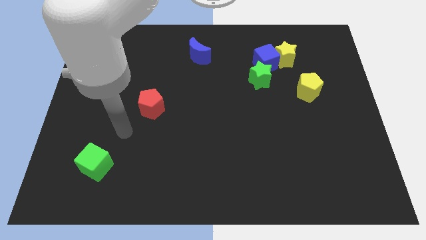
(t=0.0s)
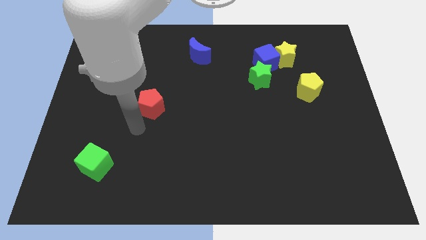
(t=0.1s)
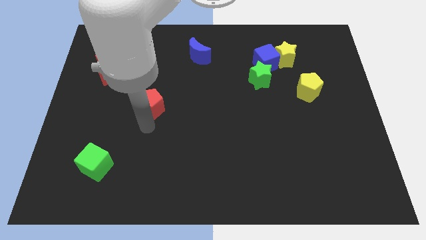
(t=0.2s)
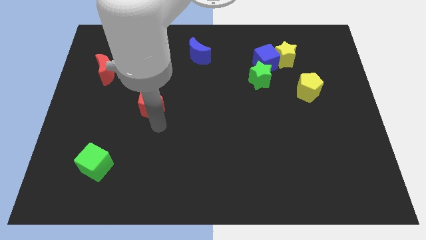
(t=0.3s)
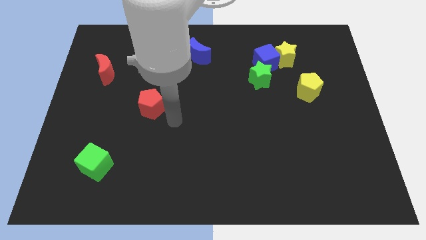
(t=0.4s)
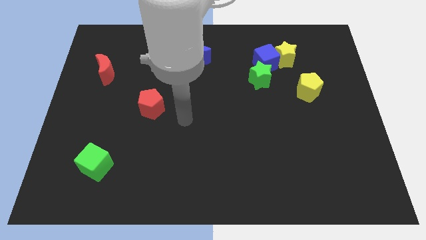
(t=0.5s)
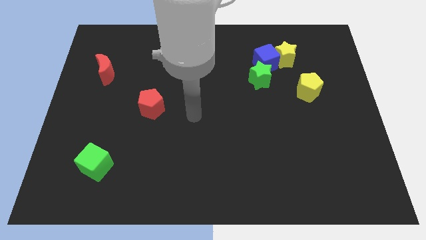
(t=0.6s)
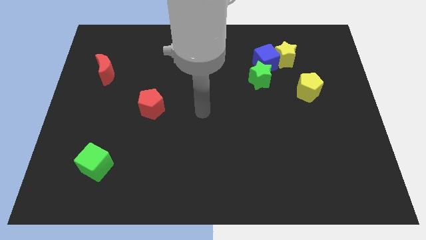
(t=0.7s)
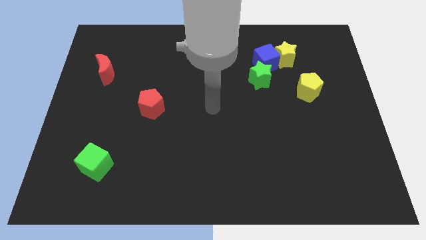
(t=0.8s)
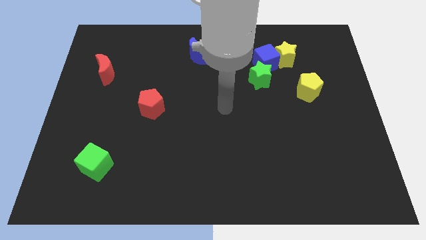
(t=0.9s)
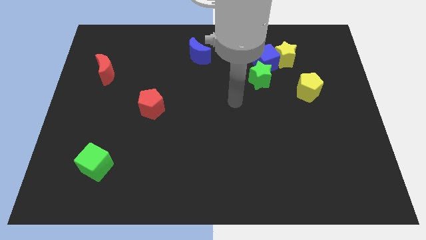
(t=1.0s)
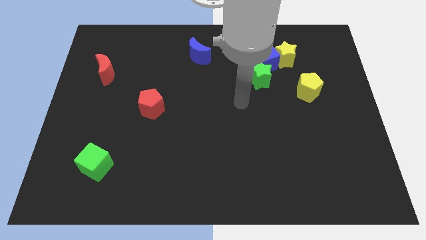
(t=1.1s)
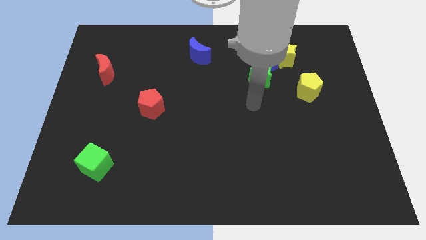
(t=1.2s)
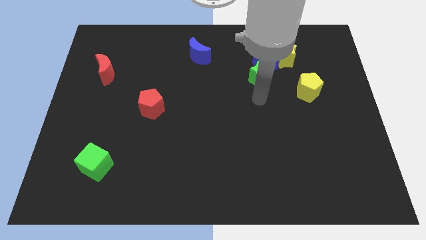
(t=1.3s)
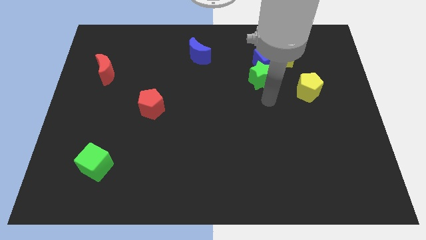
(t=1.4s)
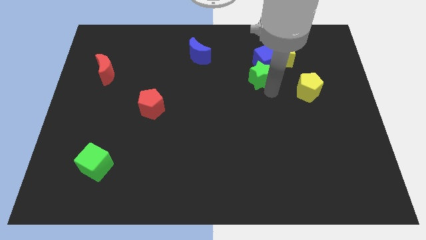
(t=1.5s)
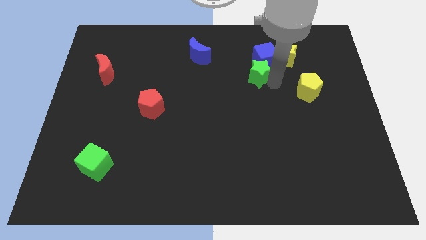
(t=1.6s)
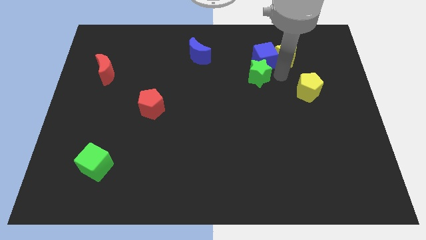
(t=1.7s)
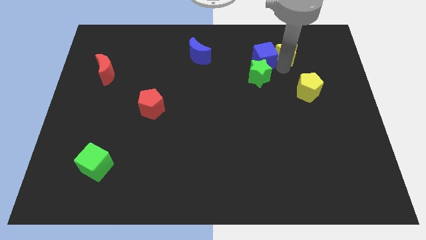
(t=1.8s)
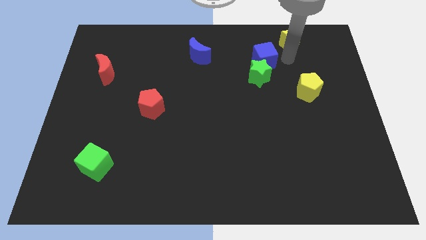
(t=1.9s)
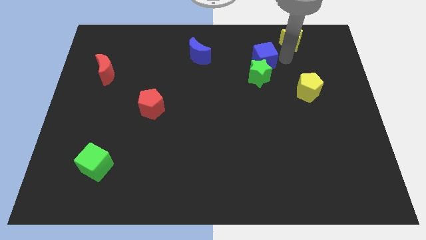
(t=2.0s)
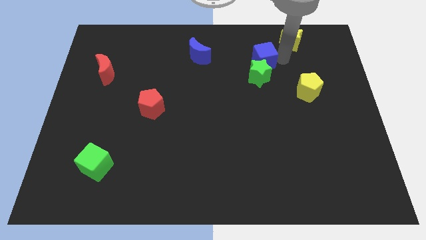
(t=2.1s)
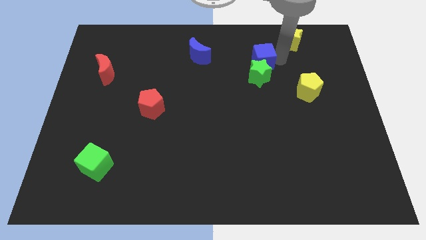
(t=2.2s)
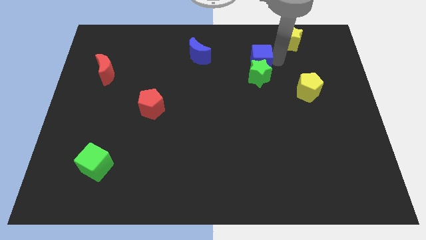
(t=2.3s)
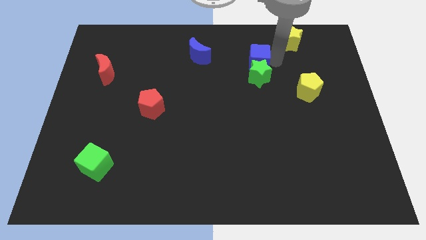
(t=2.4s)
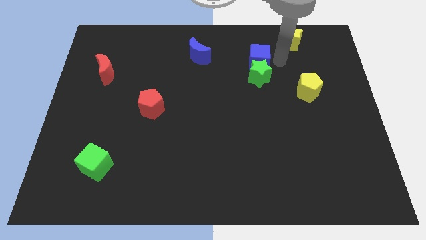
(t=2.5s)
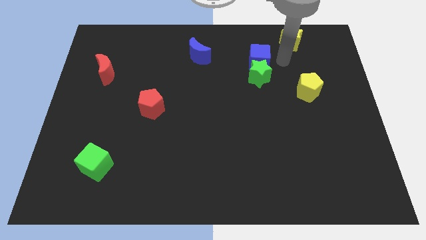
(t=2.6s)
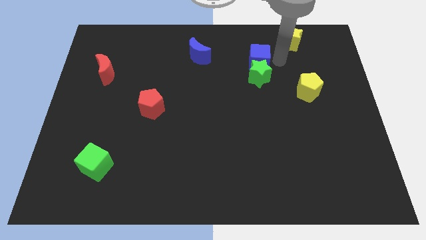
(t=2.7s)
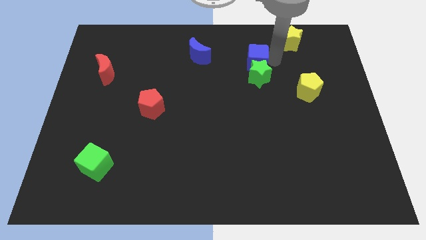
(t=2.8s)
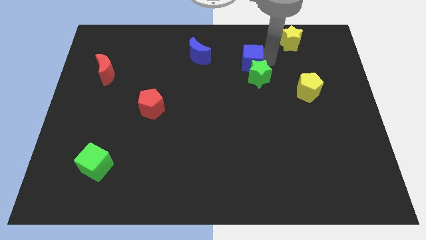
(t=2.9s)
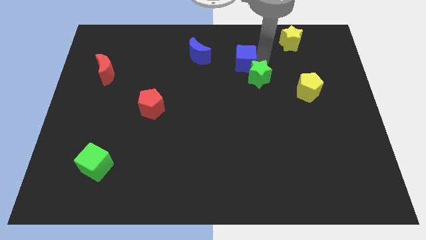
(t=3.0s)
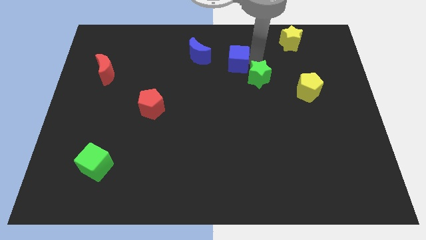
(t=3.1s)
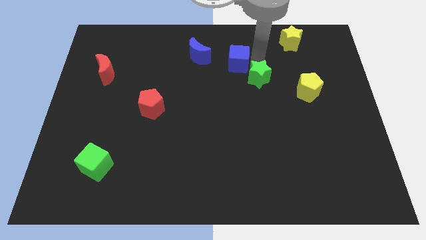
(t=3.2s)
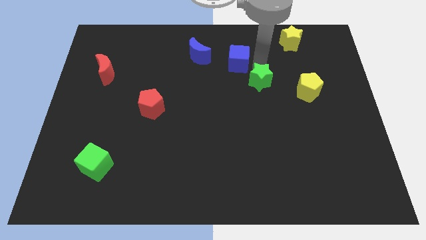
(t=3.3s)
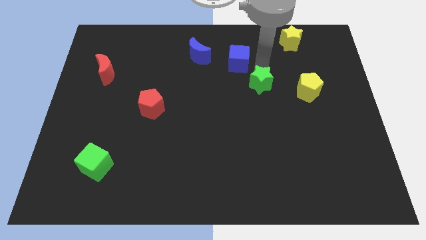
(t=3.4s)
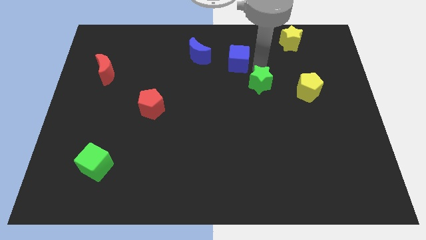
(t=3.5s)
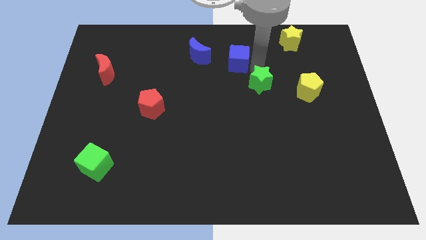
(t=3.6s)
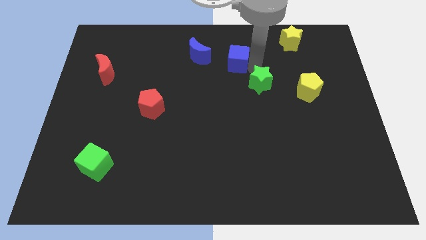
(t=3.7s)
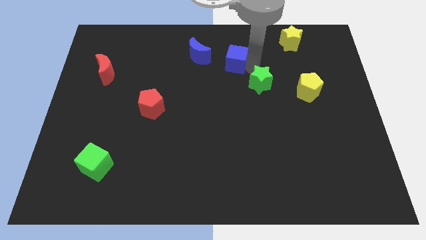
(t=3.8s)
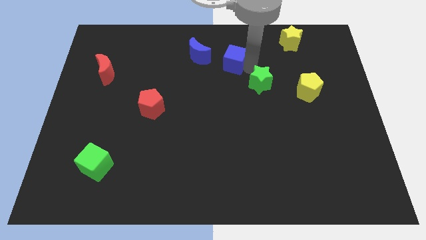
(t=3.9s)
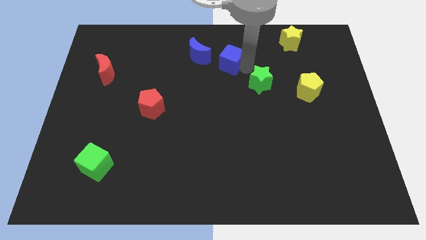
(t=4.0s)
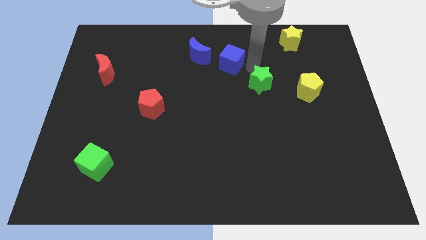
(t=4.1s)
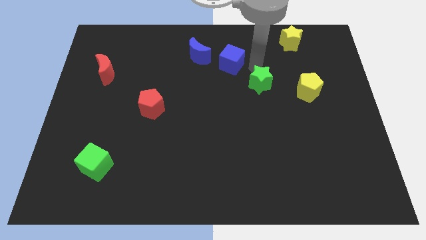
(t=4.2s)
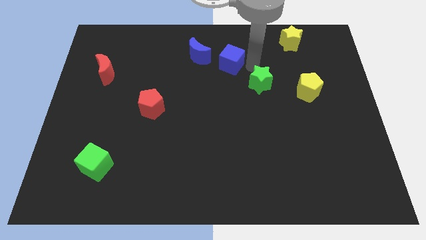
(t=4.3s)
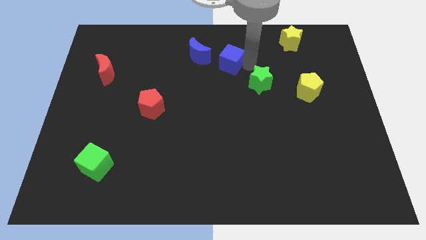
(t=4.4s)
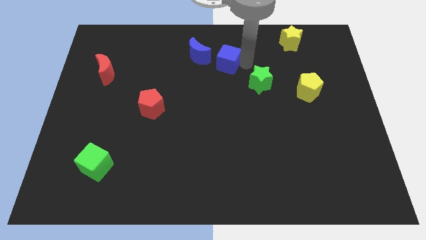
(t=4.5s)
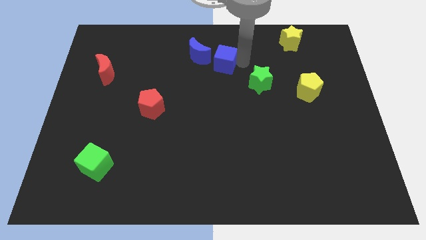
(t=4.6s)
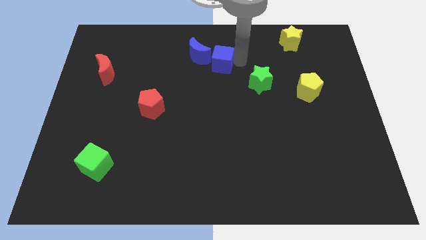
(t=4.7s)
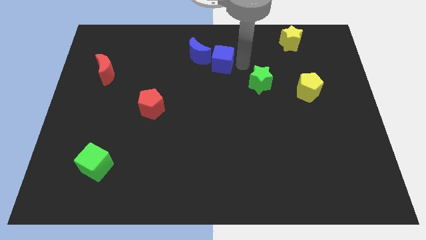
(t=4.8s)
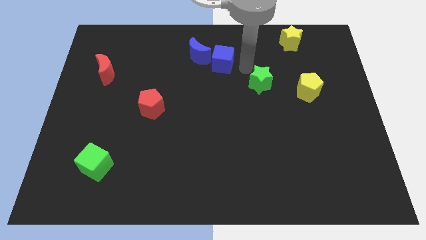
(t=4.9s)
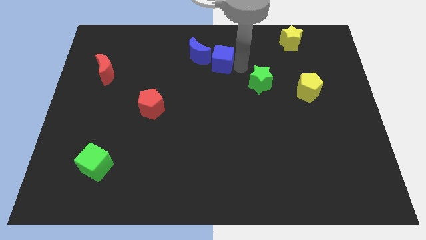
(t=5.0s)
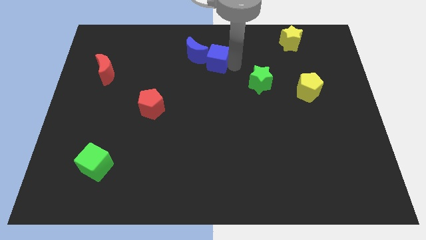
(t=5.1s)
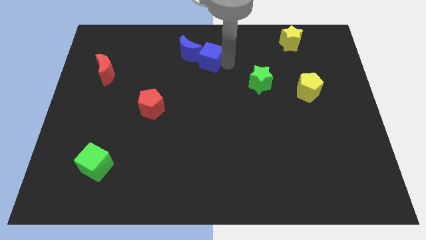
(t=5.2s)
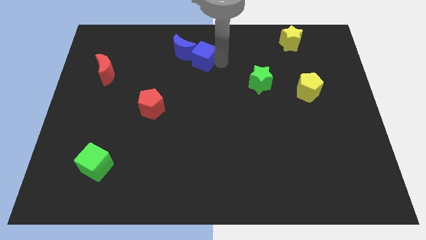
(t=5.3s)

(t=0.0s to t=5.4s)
push the blue cube next to the blue moon

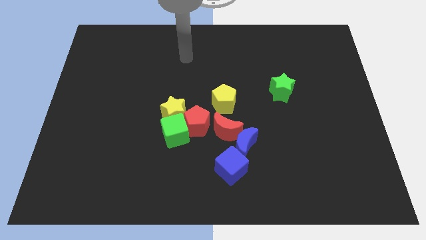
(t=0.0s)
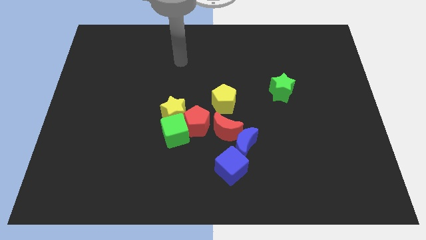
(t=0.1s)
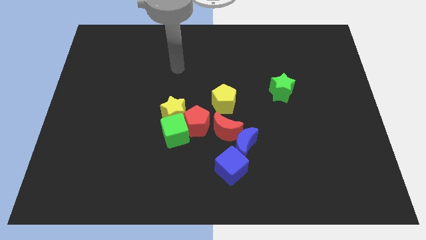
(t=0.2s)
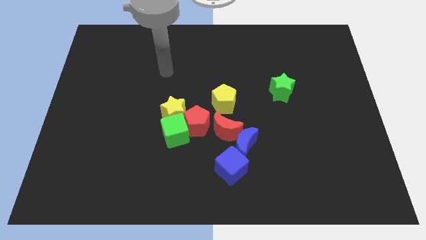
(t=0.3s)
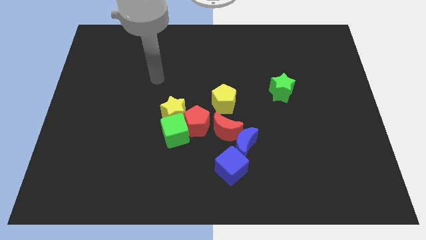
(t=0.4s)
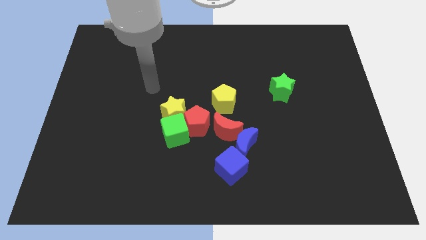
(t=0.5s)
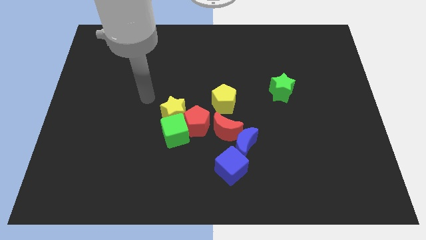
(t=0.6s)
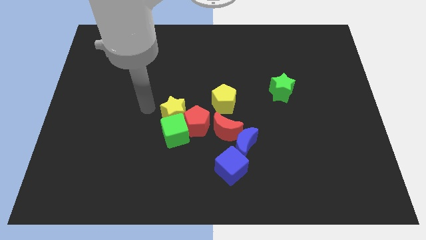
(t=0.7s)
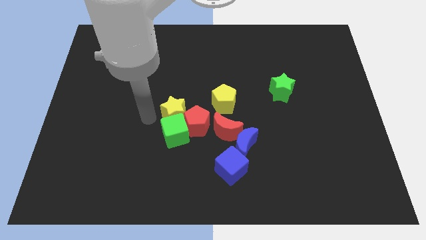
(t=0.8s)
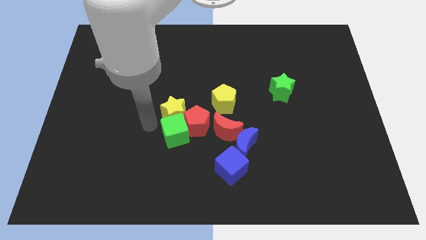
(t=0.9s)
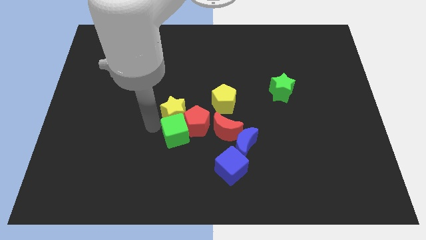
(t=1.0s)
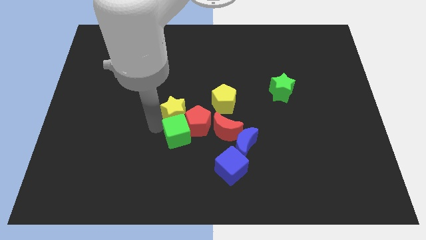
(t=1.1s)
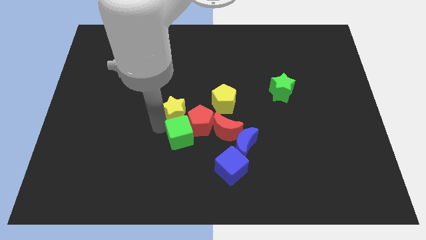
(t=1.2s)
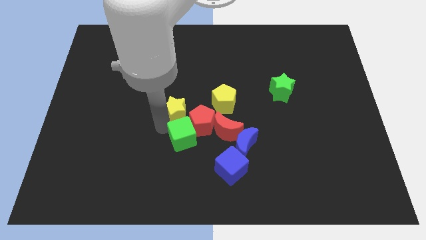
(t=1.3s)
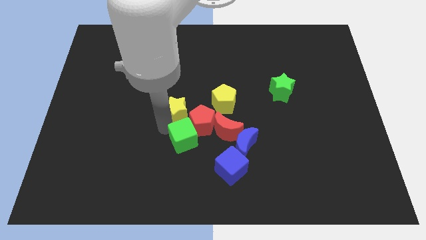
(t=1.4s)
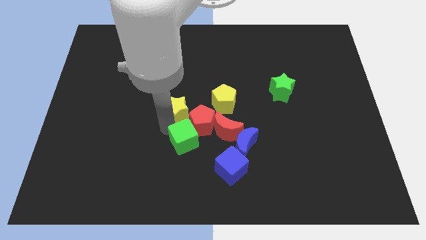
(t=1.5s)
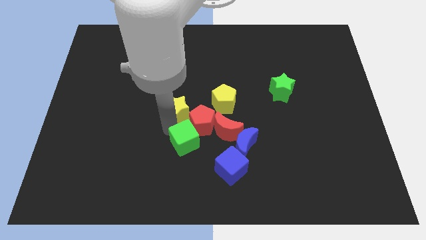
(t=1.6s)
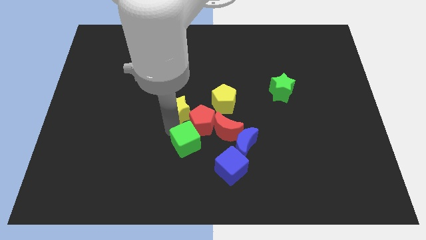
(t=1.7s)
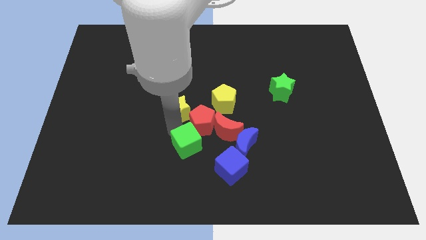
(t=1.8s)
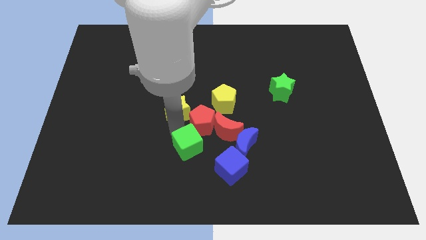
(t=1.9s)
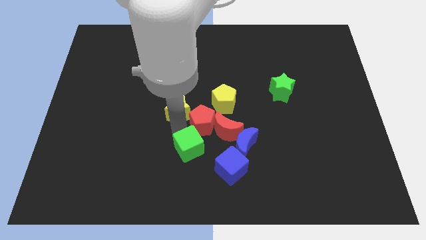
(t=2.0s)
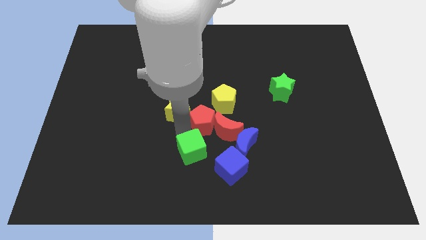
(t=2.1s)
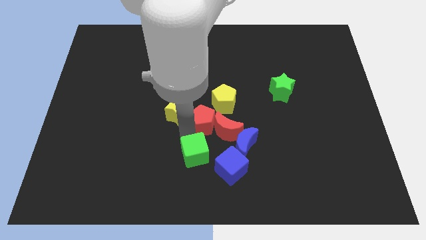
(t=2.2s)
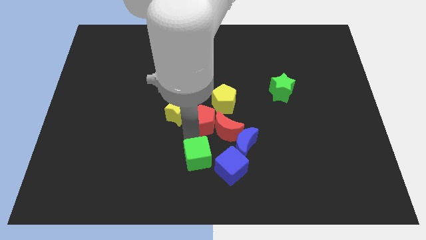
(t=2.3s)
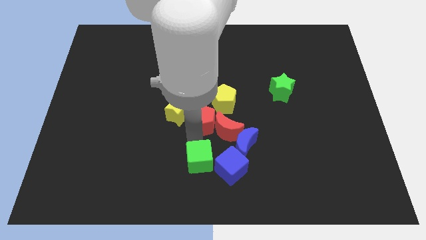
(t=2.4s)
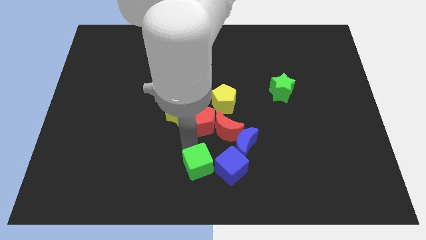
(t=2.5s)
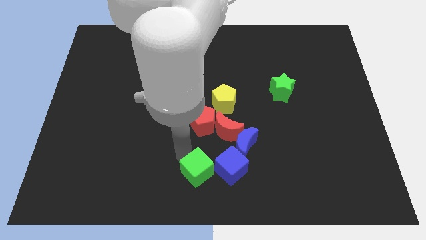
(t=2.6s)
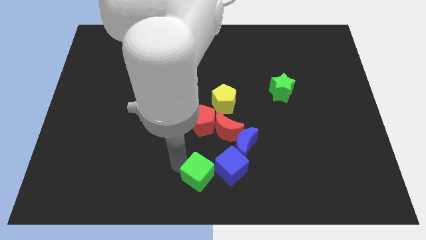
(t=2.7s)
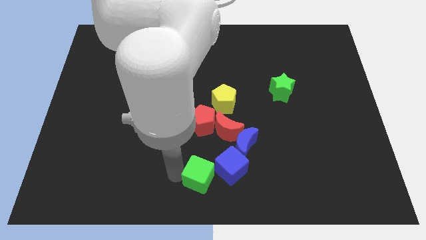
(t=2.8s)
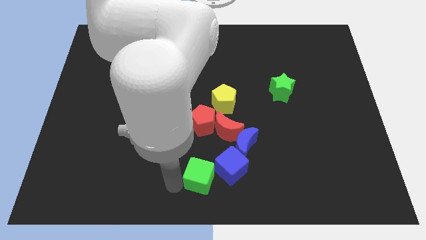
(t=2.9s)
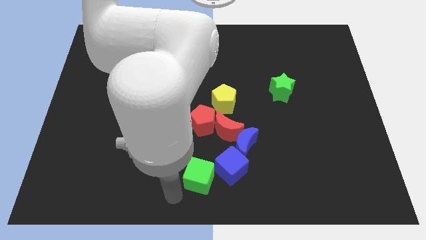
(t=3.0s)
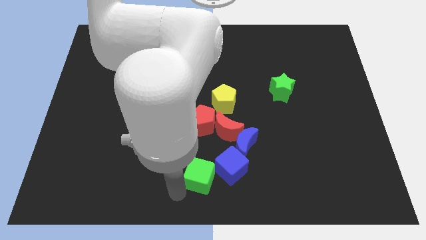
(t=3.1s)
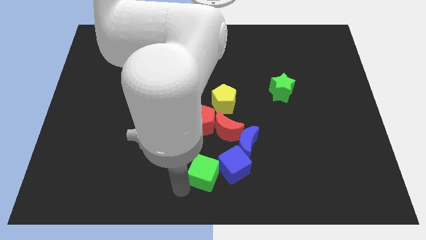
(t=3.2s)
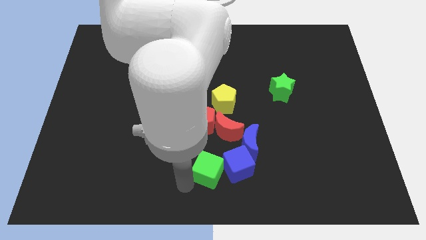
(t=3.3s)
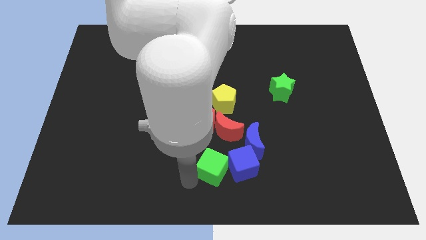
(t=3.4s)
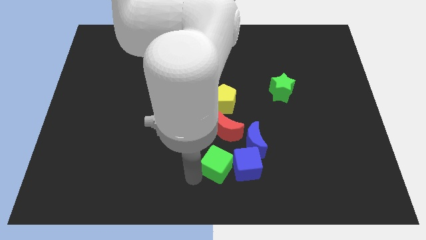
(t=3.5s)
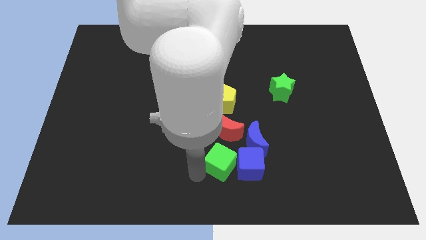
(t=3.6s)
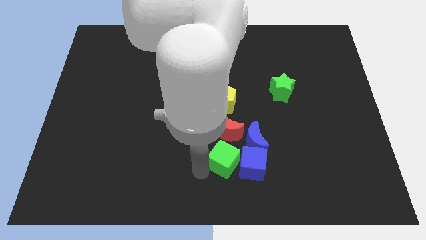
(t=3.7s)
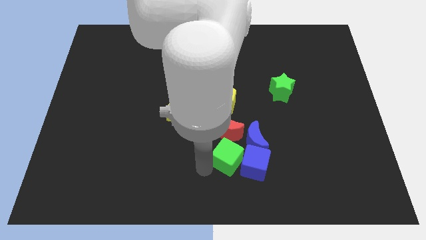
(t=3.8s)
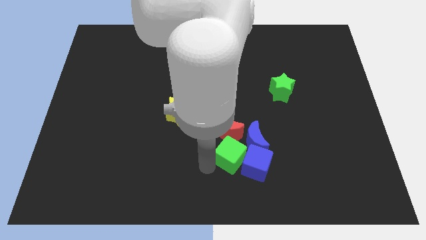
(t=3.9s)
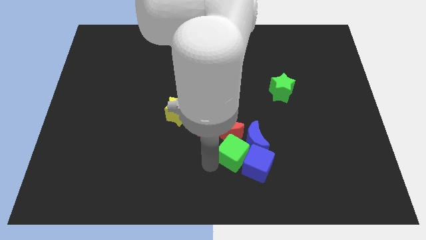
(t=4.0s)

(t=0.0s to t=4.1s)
slide the green cube close to the blue moon
